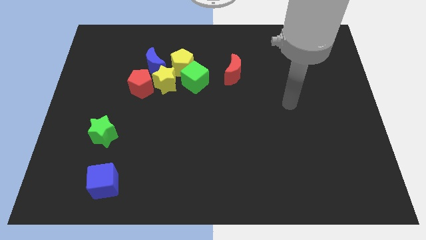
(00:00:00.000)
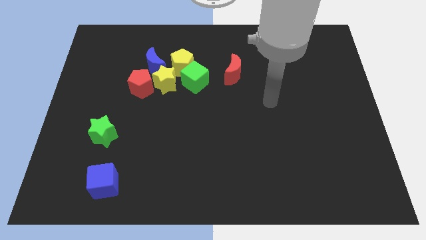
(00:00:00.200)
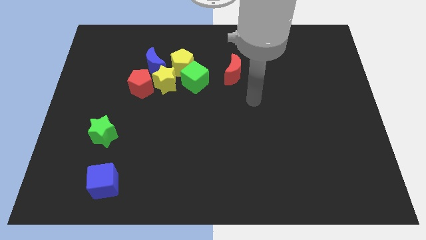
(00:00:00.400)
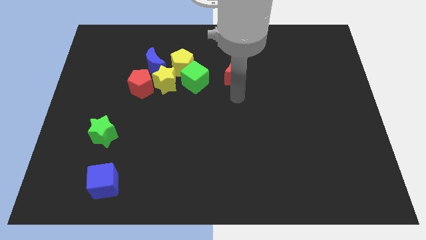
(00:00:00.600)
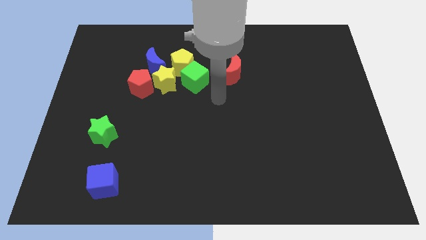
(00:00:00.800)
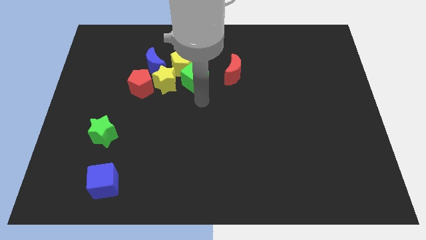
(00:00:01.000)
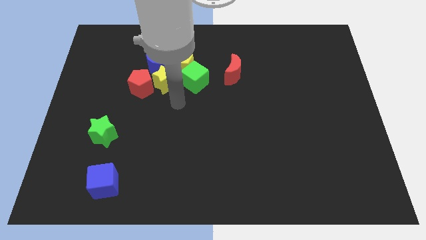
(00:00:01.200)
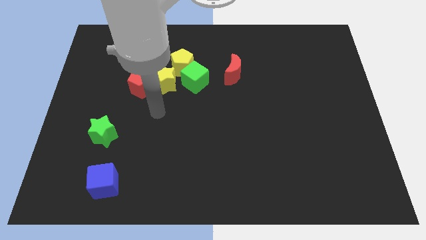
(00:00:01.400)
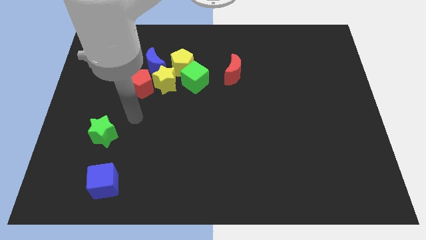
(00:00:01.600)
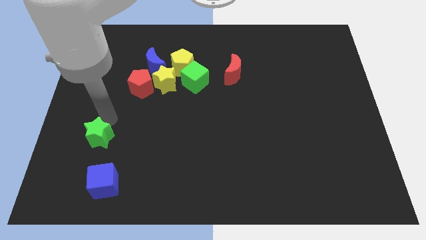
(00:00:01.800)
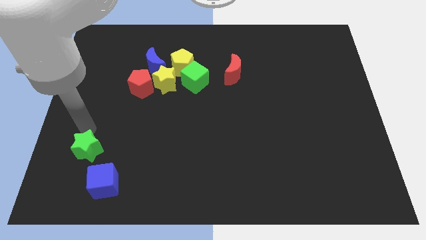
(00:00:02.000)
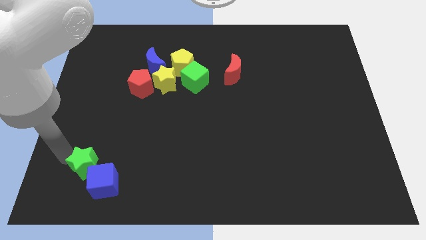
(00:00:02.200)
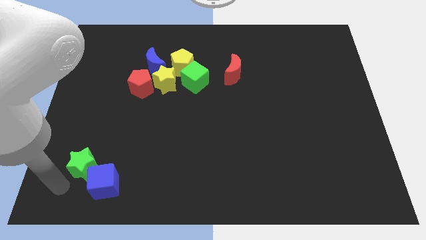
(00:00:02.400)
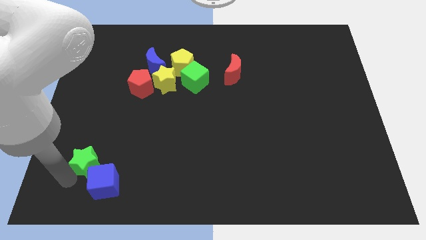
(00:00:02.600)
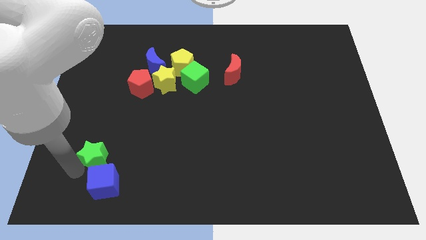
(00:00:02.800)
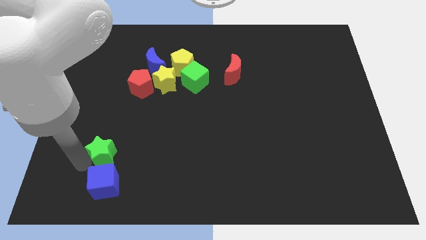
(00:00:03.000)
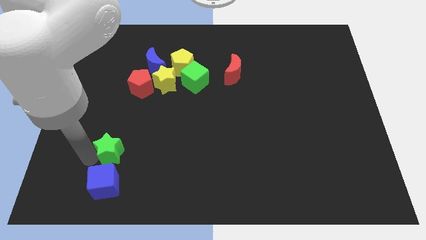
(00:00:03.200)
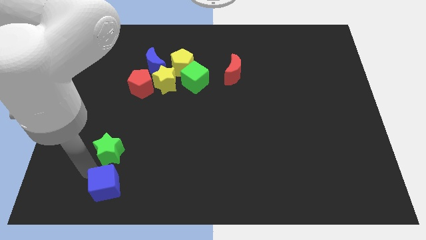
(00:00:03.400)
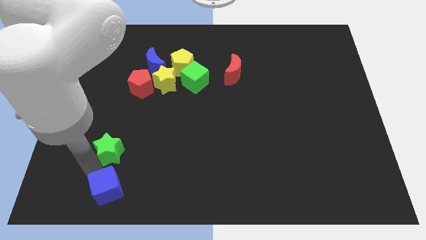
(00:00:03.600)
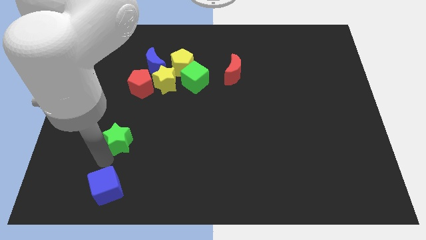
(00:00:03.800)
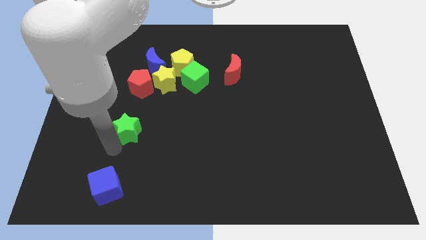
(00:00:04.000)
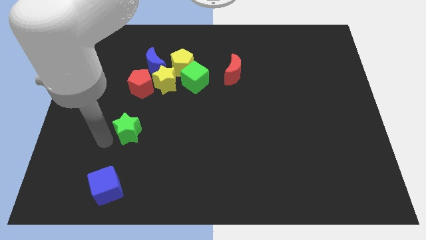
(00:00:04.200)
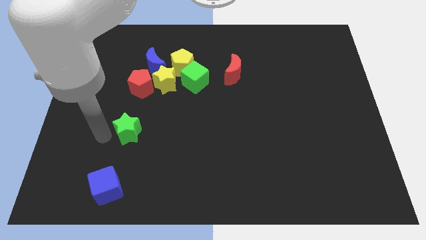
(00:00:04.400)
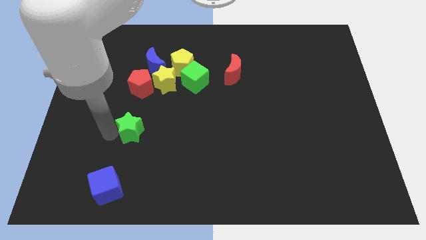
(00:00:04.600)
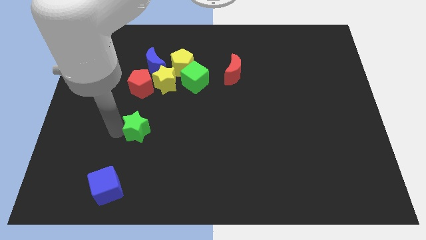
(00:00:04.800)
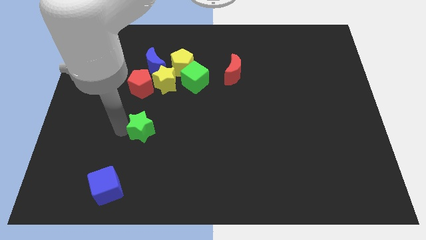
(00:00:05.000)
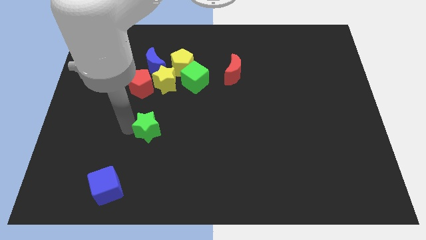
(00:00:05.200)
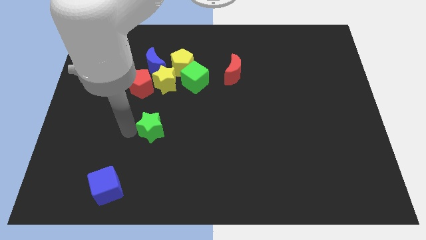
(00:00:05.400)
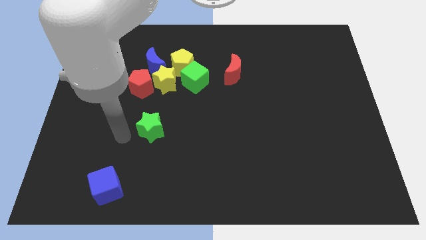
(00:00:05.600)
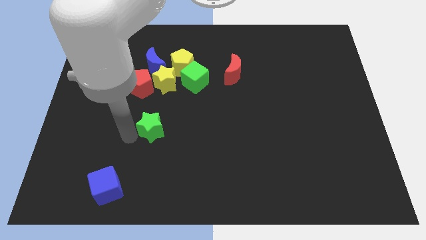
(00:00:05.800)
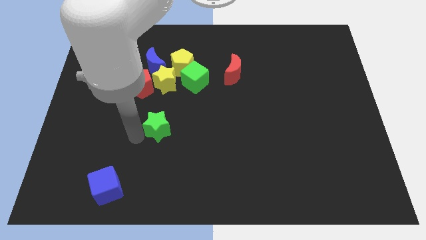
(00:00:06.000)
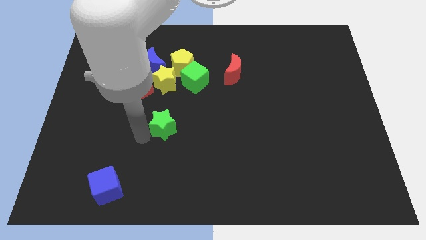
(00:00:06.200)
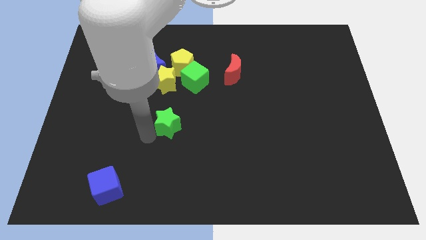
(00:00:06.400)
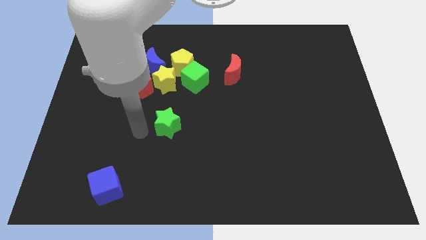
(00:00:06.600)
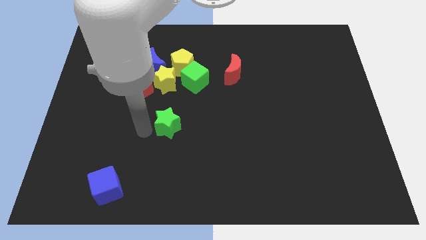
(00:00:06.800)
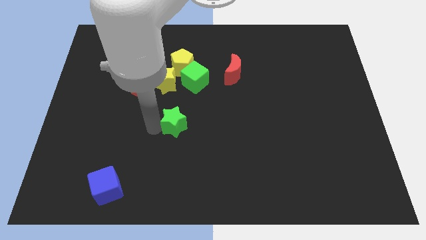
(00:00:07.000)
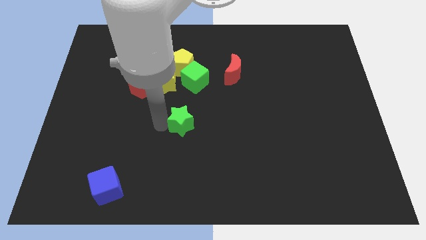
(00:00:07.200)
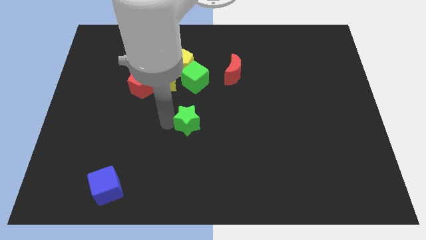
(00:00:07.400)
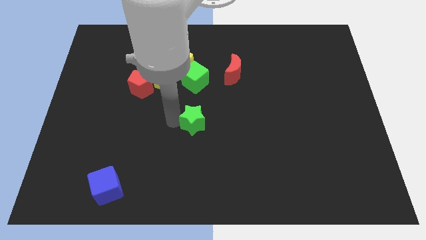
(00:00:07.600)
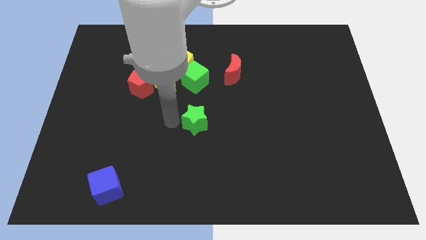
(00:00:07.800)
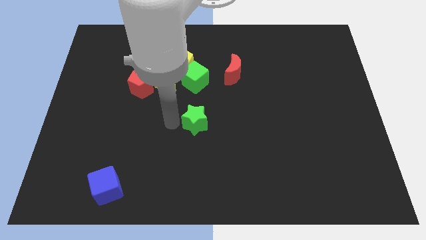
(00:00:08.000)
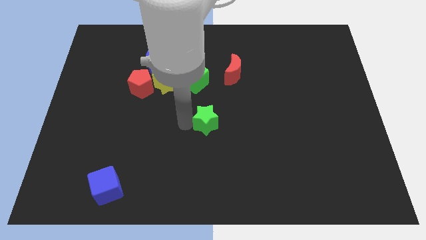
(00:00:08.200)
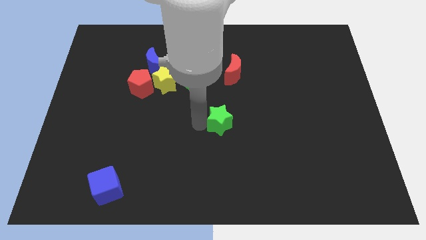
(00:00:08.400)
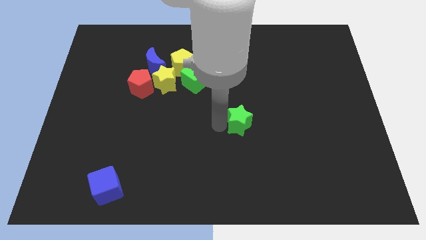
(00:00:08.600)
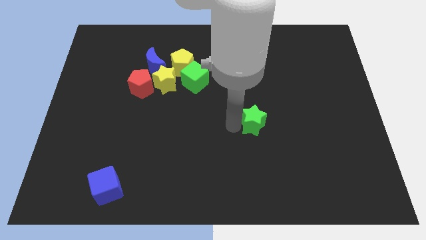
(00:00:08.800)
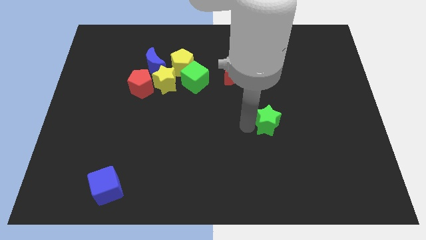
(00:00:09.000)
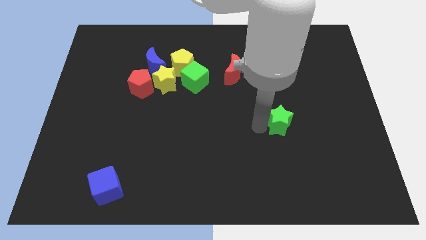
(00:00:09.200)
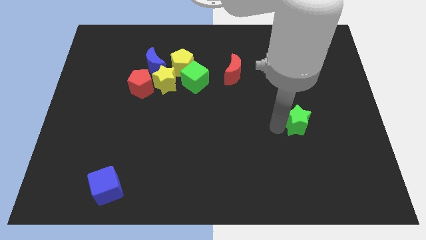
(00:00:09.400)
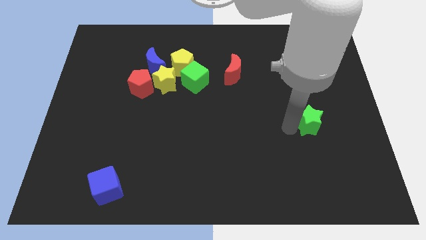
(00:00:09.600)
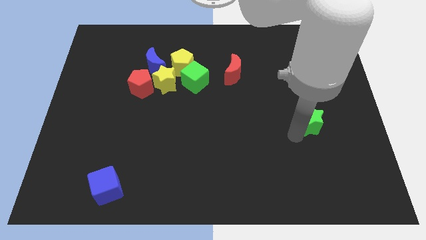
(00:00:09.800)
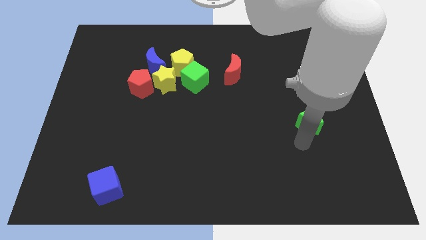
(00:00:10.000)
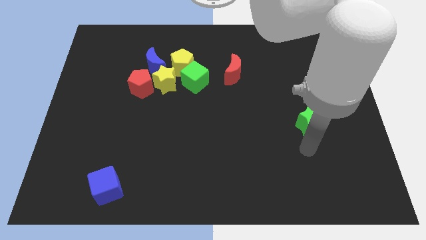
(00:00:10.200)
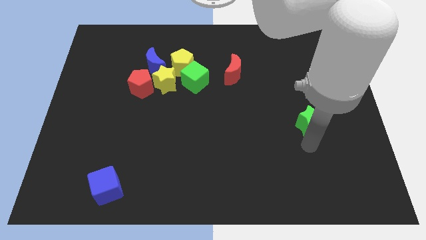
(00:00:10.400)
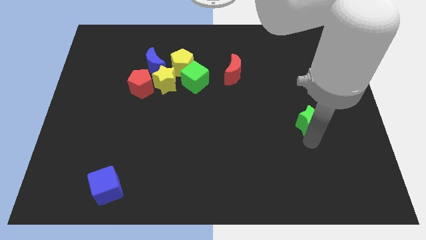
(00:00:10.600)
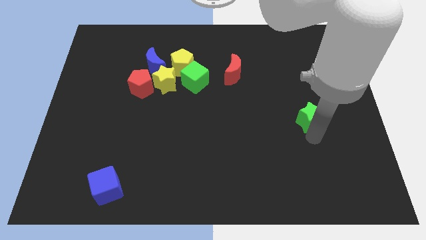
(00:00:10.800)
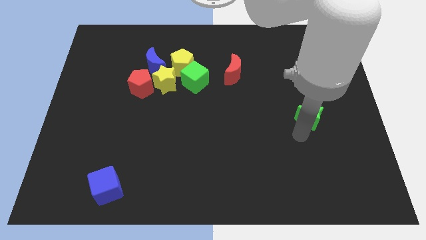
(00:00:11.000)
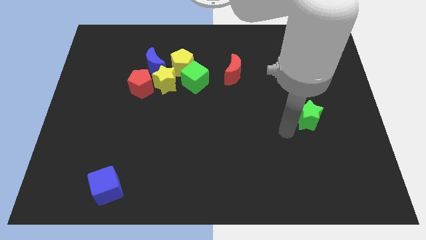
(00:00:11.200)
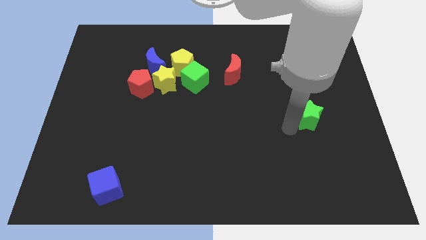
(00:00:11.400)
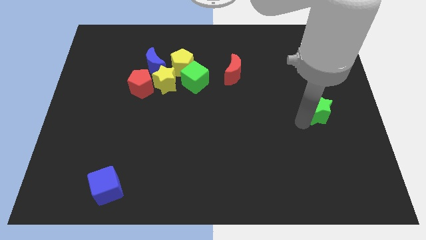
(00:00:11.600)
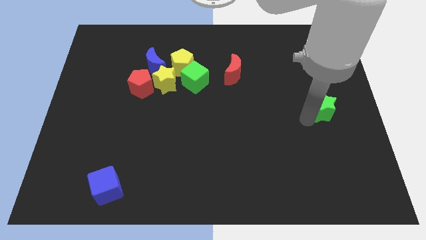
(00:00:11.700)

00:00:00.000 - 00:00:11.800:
put the green star to the right side

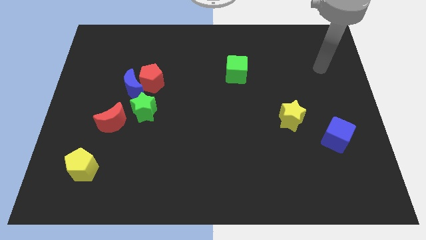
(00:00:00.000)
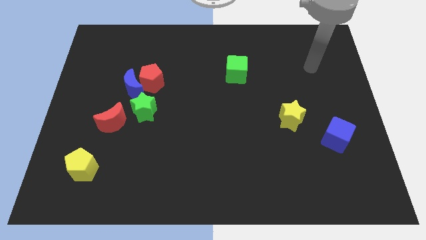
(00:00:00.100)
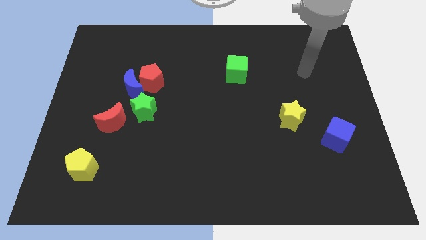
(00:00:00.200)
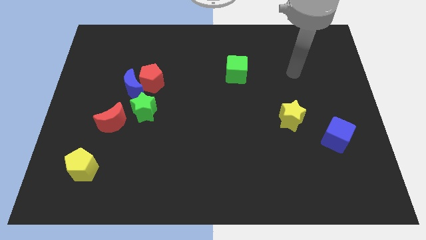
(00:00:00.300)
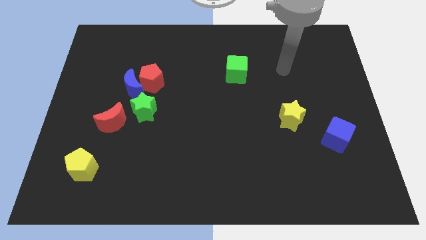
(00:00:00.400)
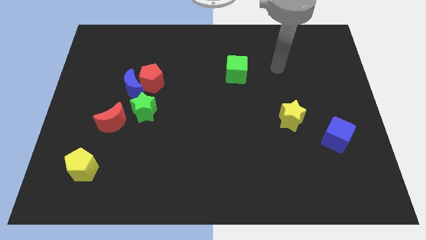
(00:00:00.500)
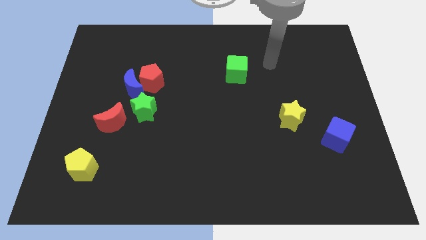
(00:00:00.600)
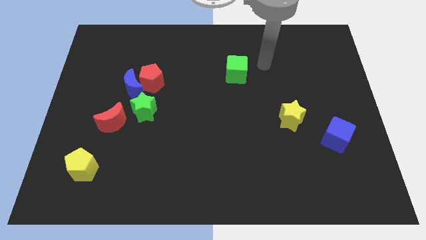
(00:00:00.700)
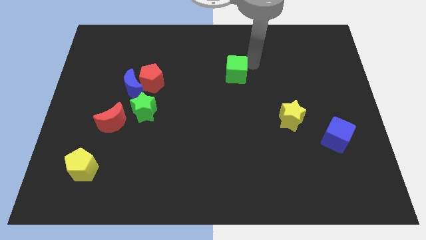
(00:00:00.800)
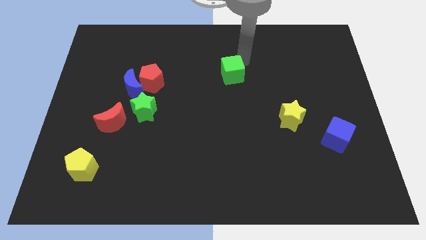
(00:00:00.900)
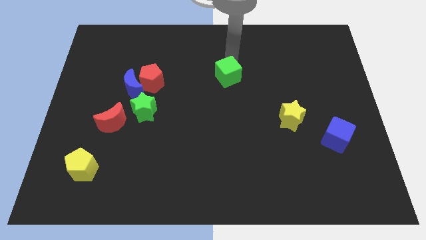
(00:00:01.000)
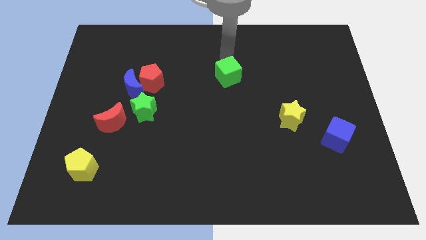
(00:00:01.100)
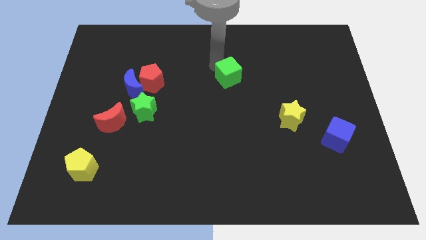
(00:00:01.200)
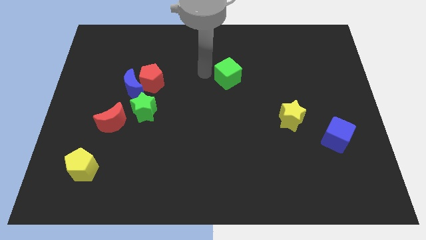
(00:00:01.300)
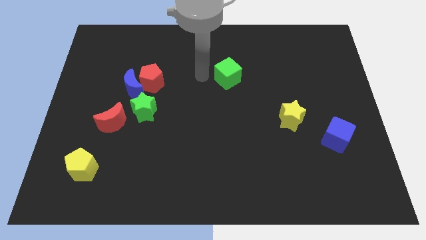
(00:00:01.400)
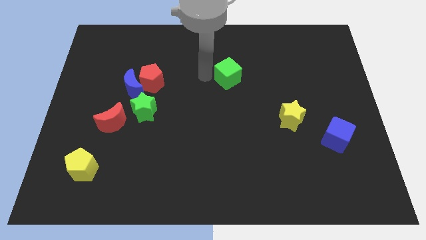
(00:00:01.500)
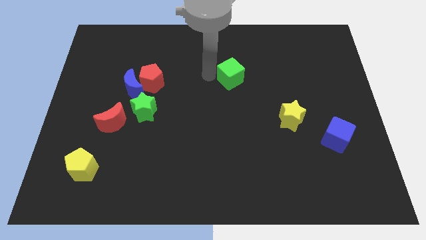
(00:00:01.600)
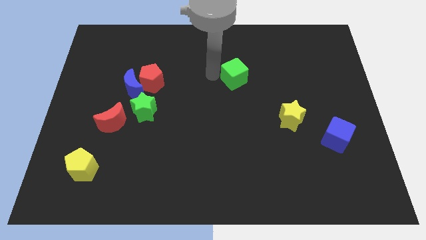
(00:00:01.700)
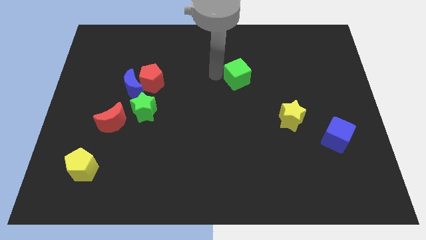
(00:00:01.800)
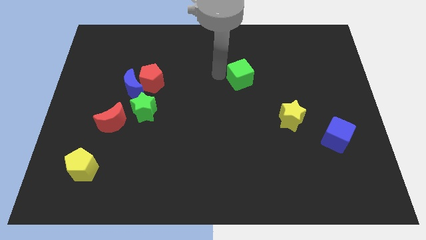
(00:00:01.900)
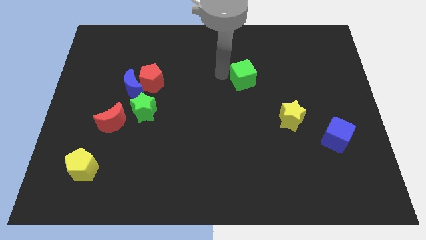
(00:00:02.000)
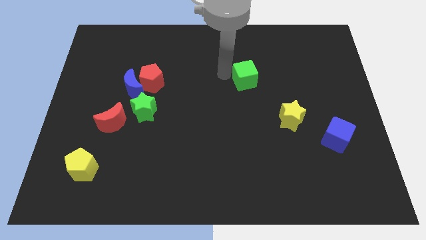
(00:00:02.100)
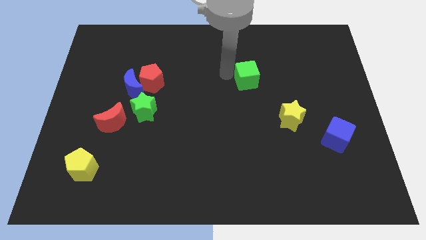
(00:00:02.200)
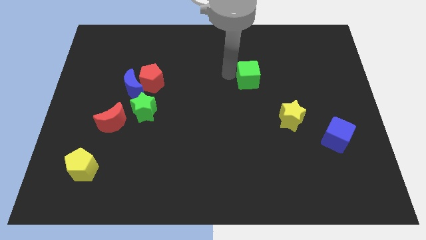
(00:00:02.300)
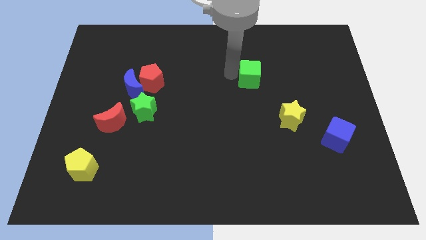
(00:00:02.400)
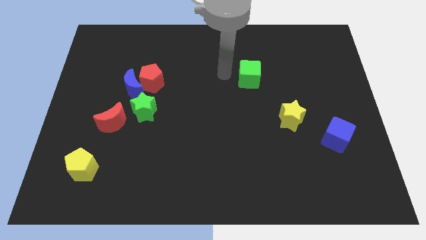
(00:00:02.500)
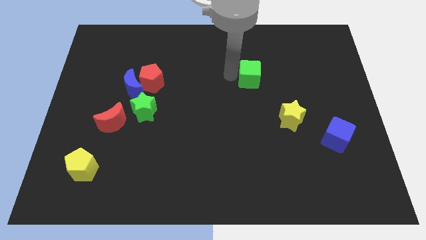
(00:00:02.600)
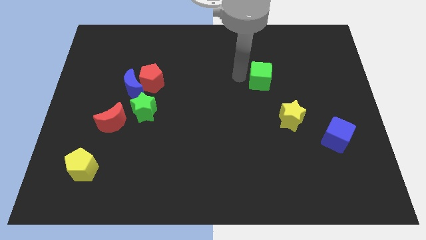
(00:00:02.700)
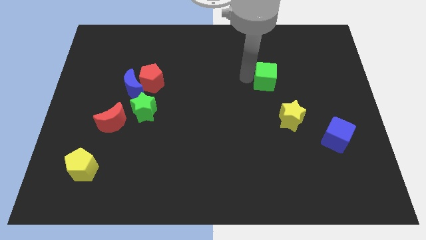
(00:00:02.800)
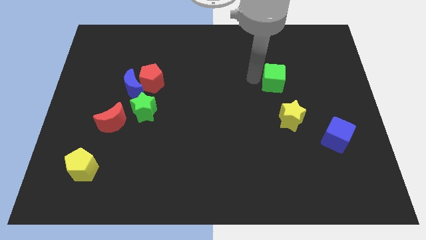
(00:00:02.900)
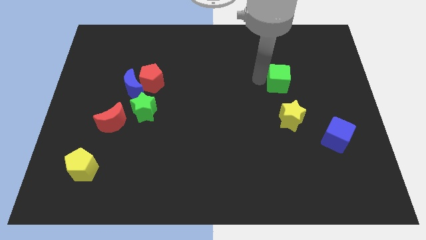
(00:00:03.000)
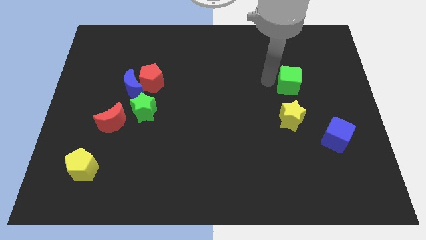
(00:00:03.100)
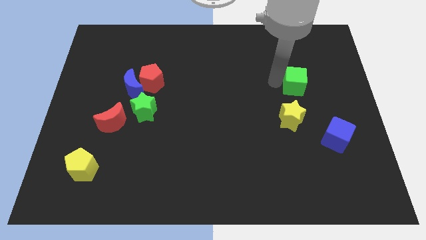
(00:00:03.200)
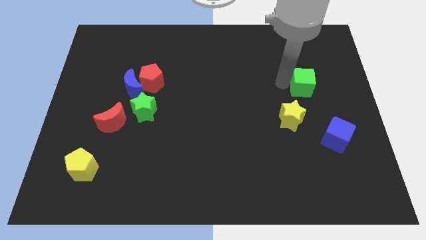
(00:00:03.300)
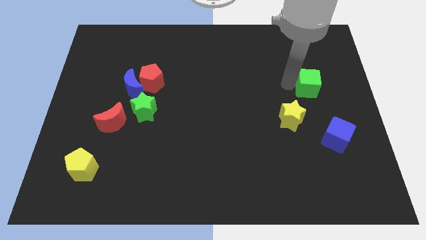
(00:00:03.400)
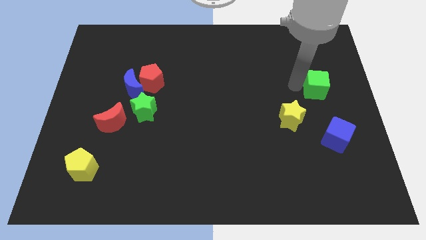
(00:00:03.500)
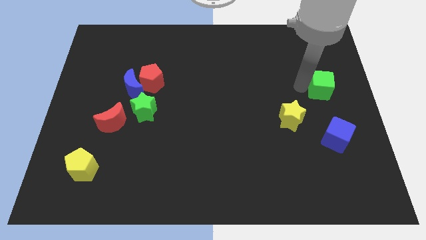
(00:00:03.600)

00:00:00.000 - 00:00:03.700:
push the green cube to the center right
